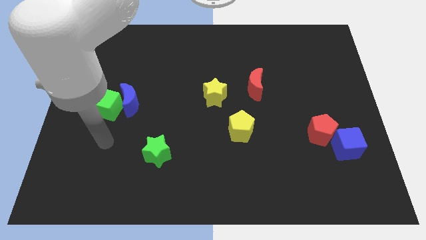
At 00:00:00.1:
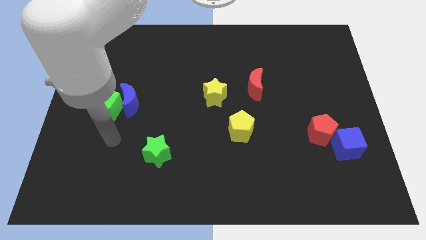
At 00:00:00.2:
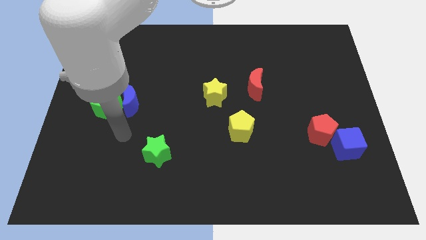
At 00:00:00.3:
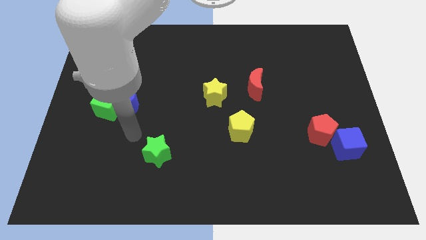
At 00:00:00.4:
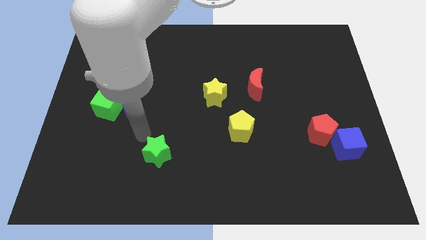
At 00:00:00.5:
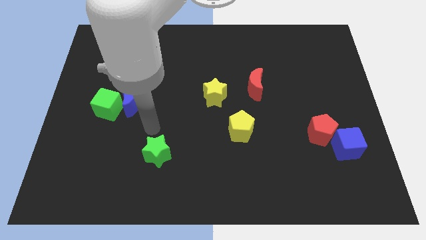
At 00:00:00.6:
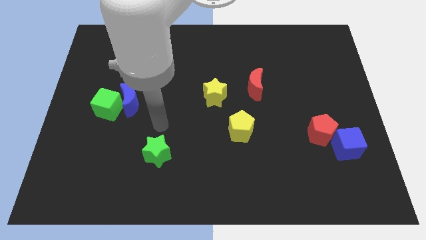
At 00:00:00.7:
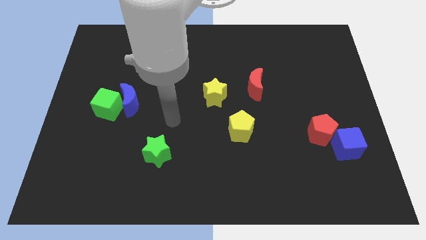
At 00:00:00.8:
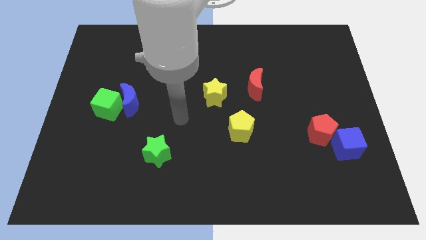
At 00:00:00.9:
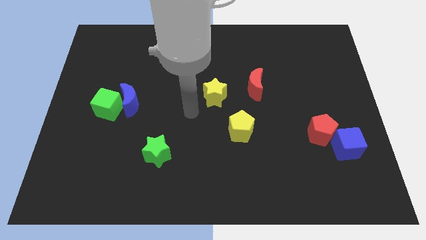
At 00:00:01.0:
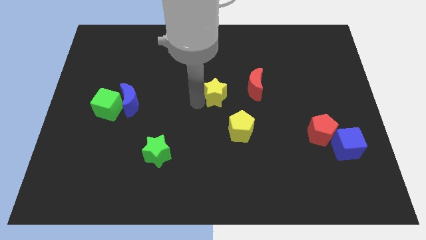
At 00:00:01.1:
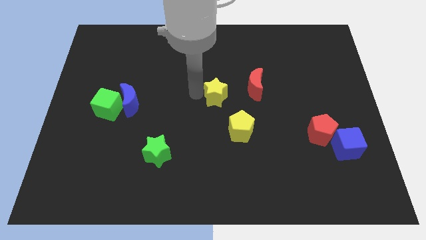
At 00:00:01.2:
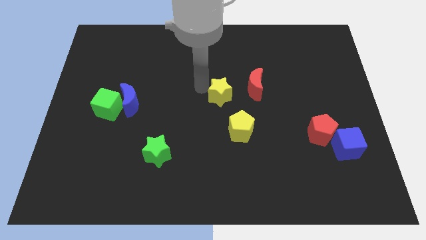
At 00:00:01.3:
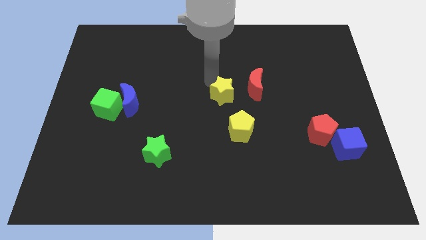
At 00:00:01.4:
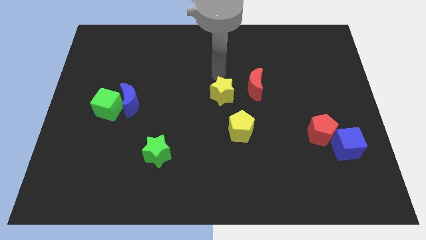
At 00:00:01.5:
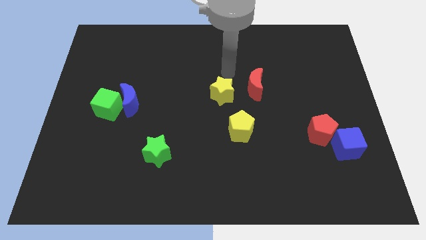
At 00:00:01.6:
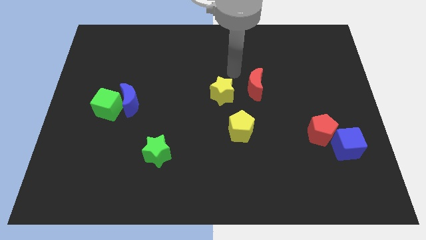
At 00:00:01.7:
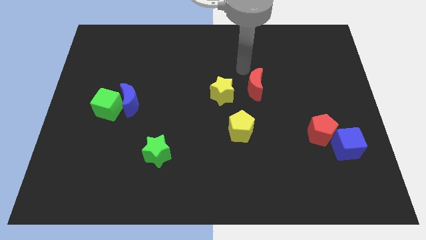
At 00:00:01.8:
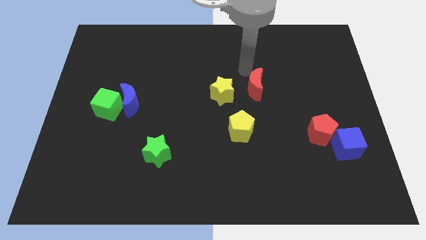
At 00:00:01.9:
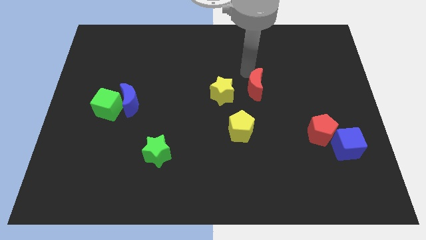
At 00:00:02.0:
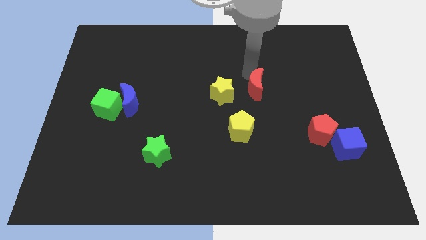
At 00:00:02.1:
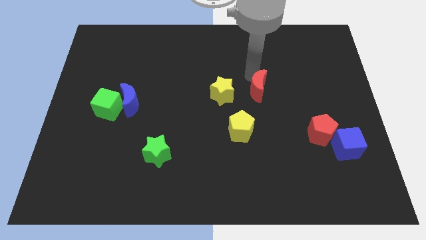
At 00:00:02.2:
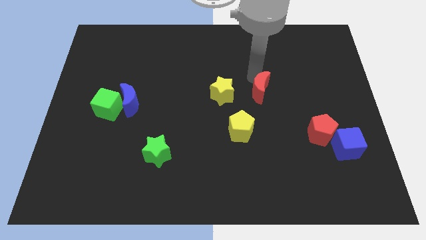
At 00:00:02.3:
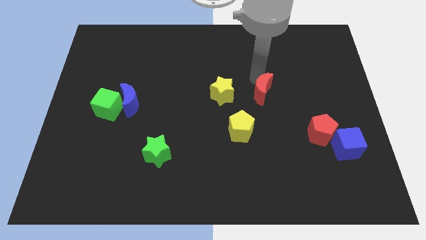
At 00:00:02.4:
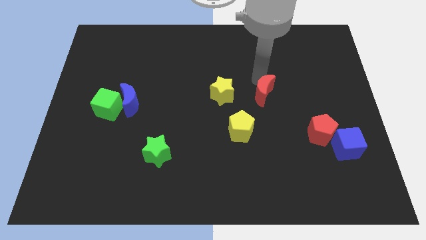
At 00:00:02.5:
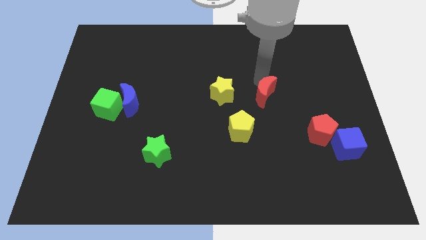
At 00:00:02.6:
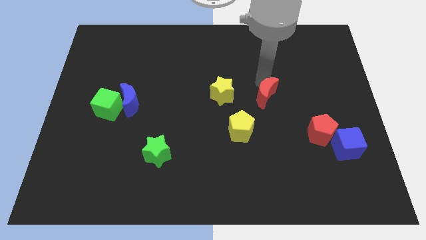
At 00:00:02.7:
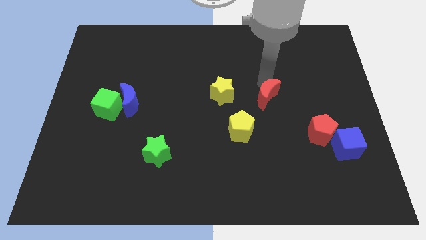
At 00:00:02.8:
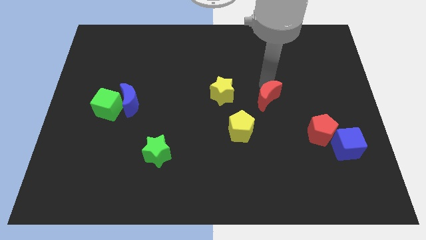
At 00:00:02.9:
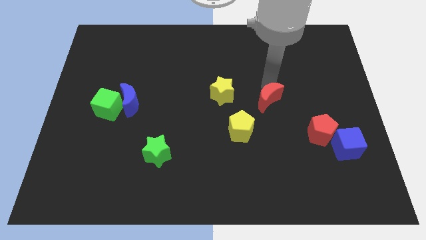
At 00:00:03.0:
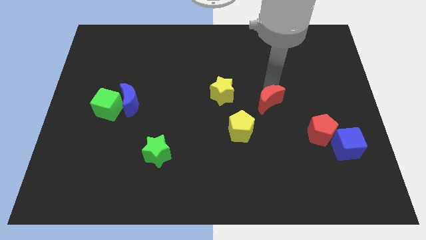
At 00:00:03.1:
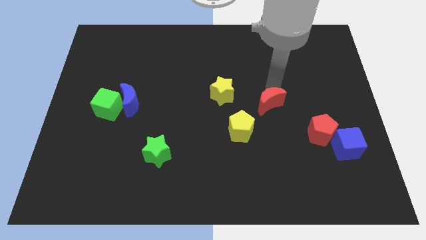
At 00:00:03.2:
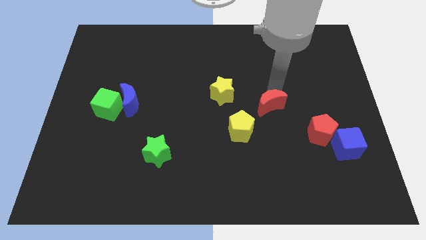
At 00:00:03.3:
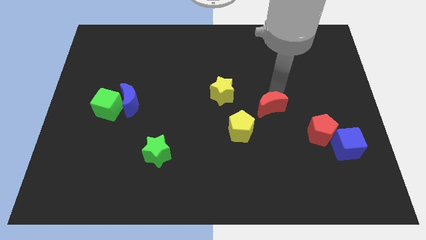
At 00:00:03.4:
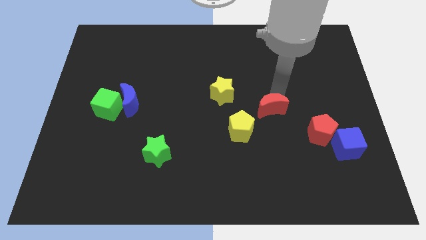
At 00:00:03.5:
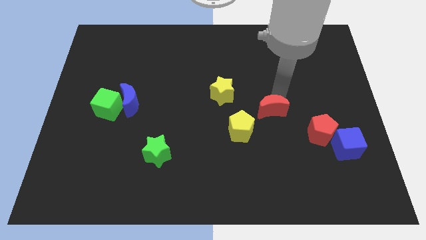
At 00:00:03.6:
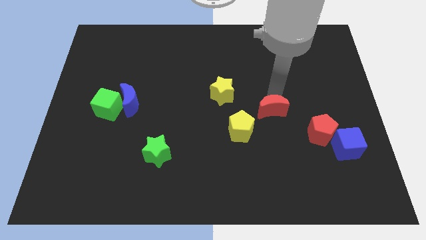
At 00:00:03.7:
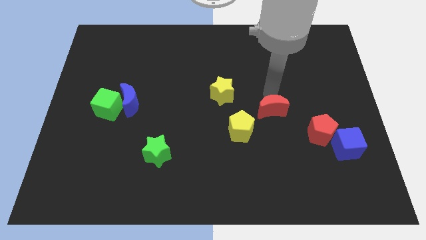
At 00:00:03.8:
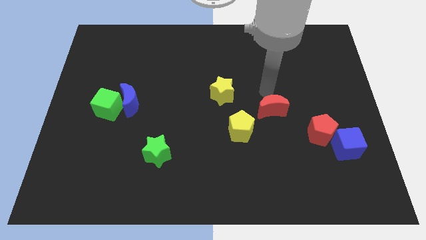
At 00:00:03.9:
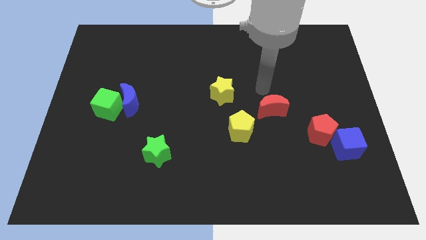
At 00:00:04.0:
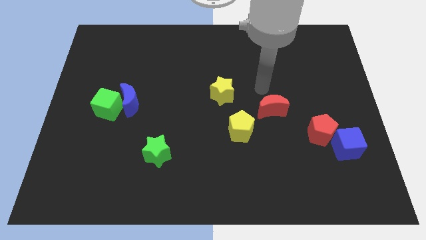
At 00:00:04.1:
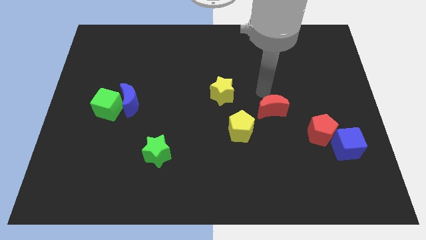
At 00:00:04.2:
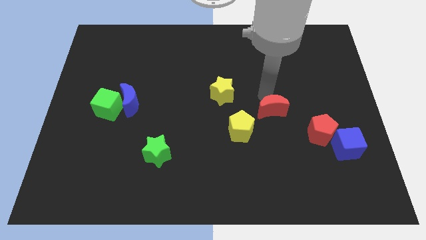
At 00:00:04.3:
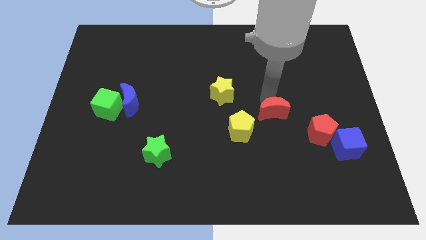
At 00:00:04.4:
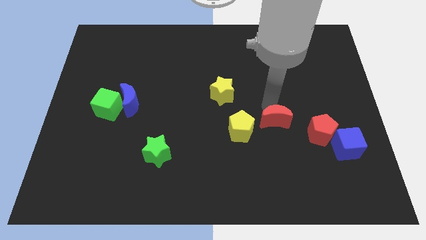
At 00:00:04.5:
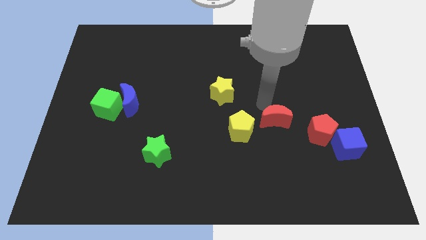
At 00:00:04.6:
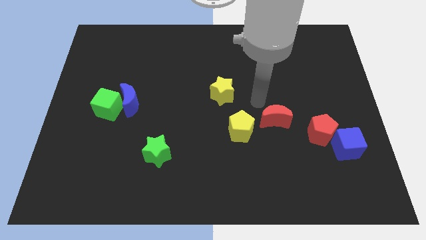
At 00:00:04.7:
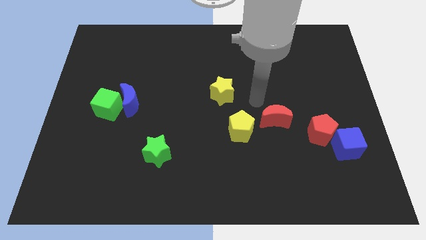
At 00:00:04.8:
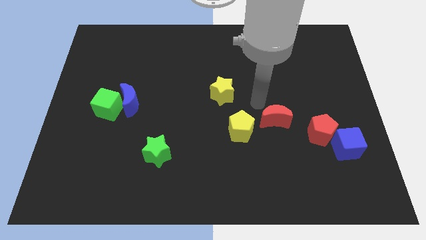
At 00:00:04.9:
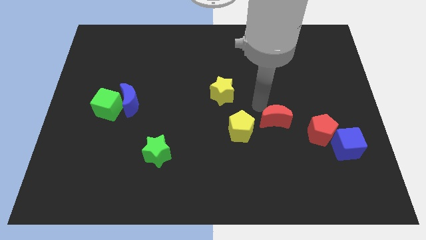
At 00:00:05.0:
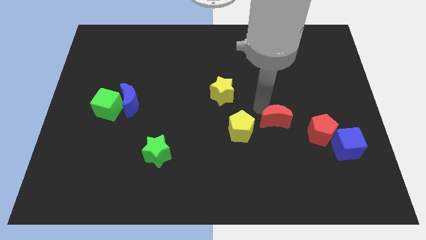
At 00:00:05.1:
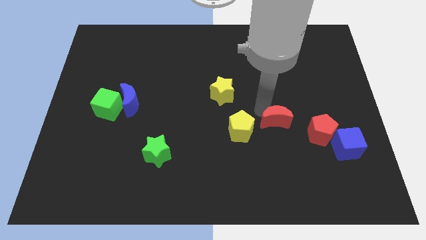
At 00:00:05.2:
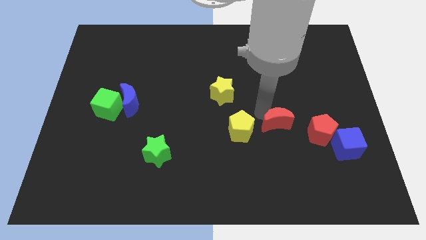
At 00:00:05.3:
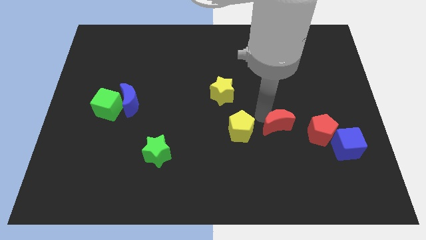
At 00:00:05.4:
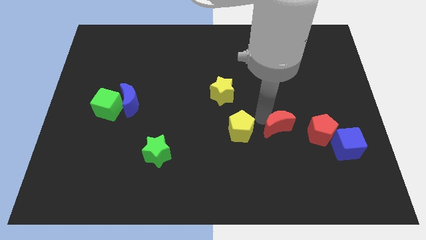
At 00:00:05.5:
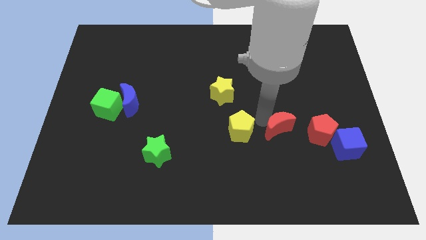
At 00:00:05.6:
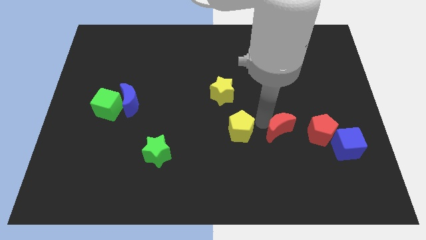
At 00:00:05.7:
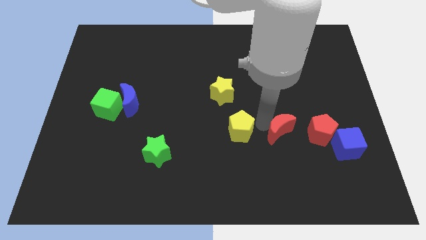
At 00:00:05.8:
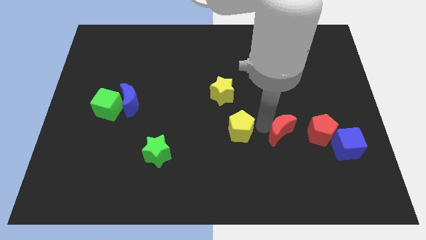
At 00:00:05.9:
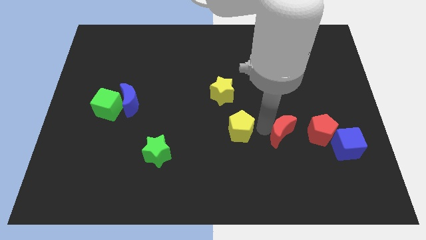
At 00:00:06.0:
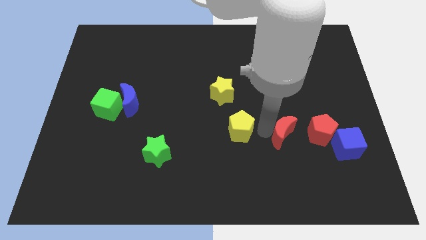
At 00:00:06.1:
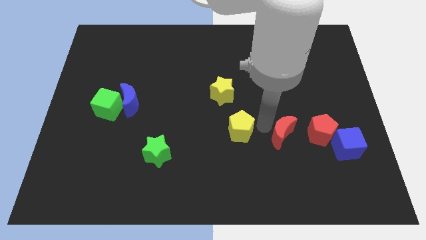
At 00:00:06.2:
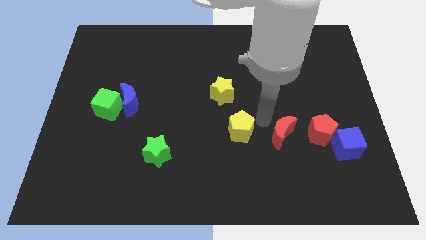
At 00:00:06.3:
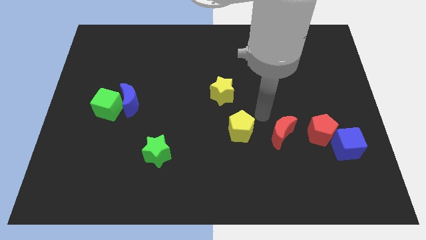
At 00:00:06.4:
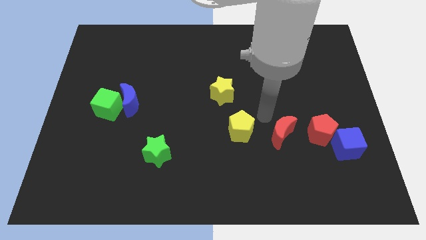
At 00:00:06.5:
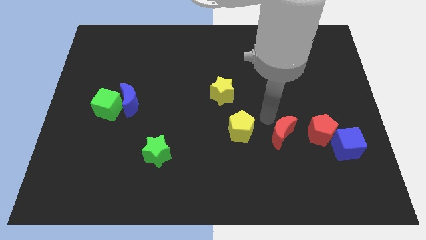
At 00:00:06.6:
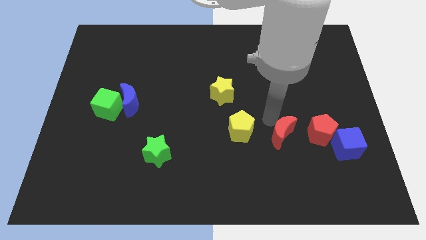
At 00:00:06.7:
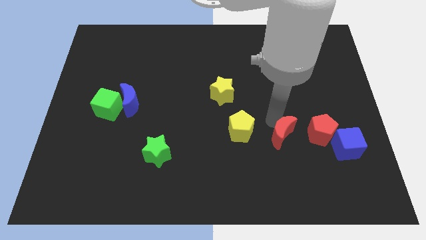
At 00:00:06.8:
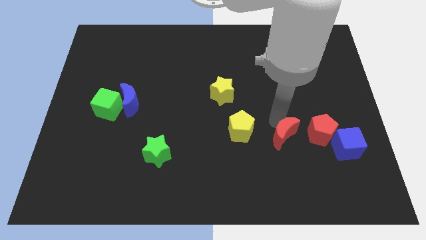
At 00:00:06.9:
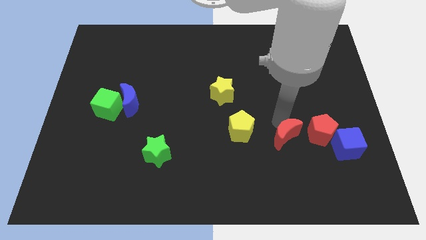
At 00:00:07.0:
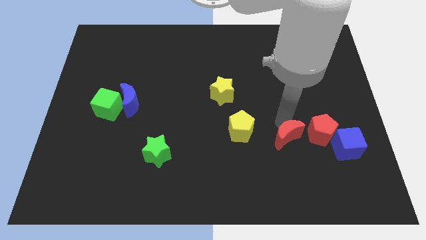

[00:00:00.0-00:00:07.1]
move the red moon to the bottom left side of the red pentagon
